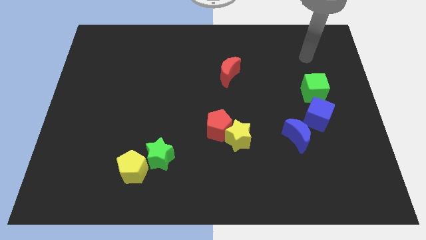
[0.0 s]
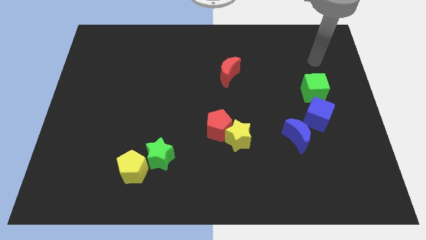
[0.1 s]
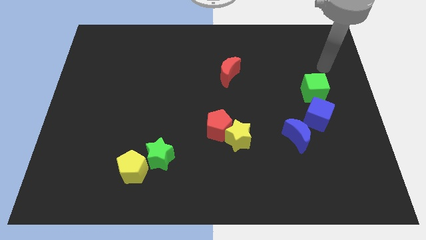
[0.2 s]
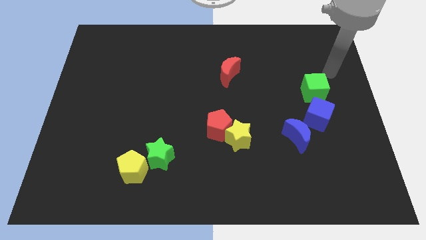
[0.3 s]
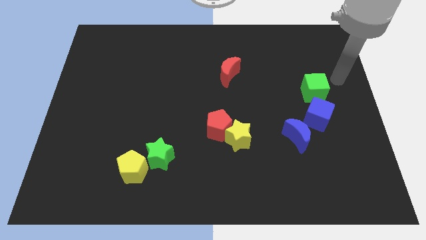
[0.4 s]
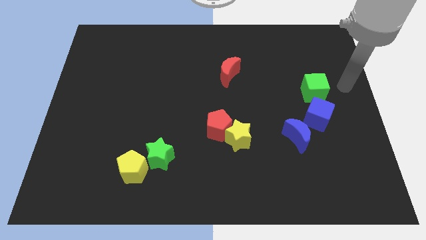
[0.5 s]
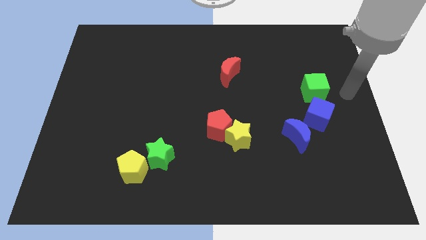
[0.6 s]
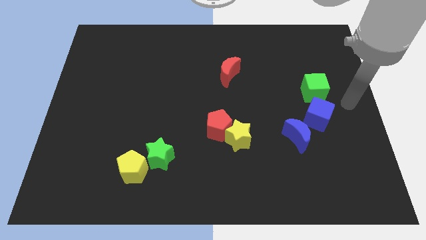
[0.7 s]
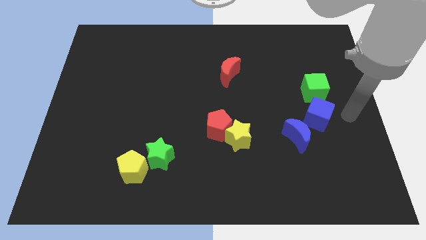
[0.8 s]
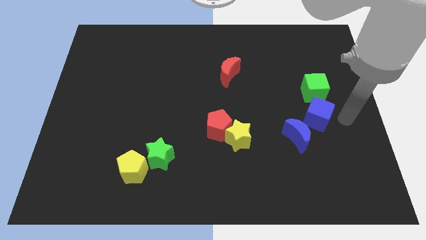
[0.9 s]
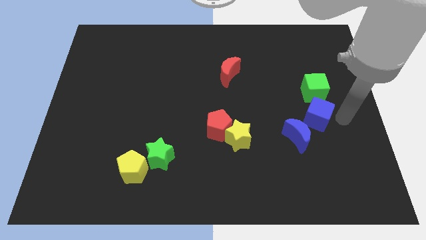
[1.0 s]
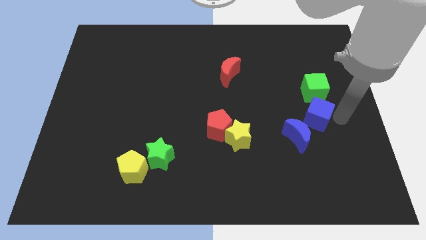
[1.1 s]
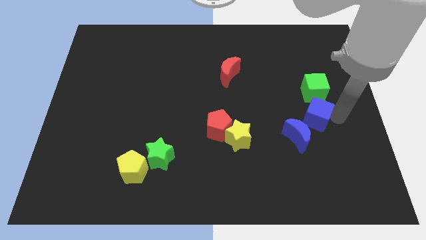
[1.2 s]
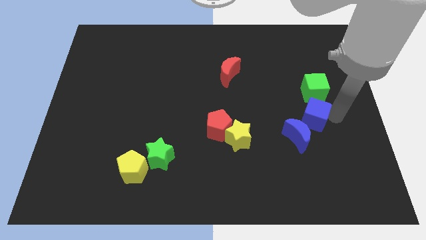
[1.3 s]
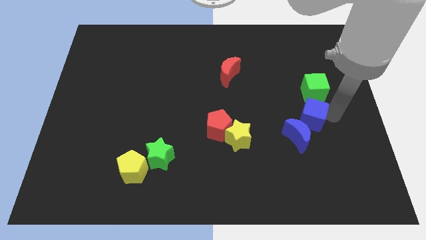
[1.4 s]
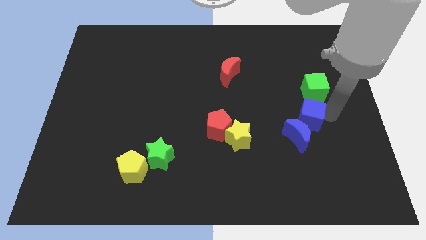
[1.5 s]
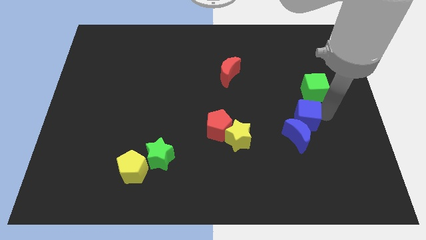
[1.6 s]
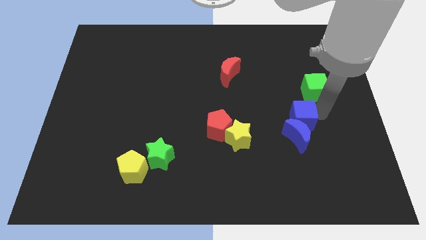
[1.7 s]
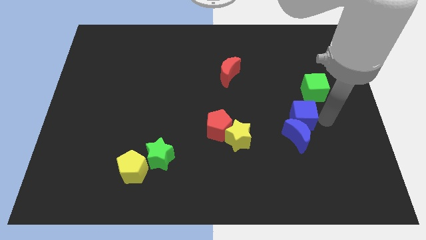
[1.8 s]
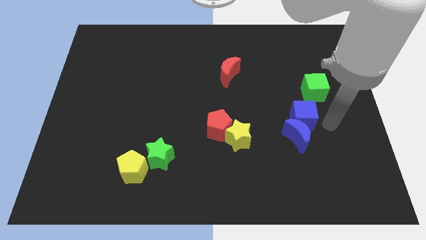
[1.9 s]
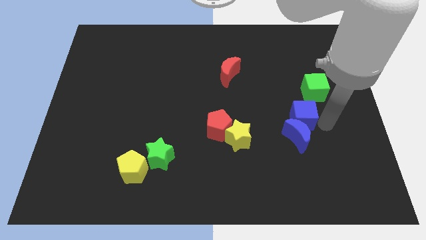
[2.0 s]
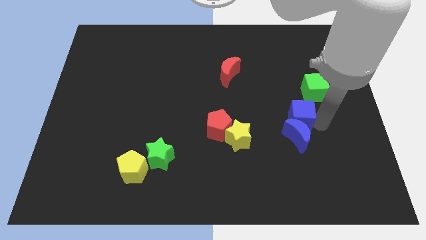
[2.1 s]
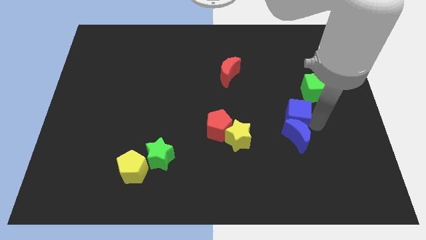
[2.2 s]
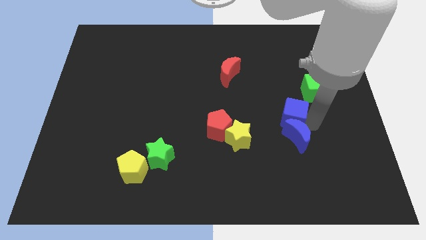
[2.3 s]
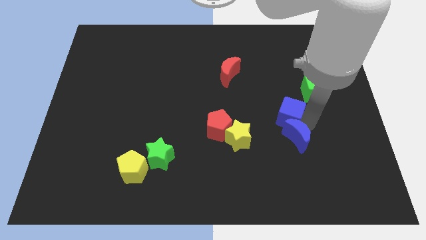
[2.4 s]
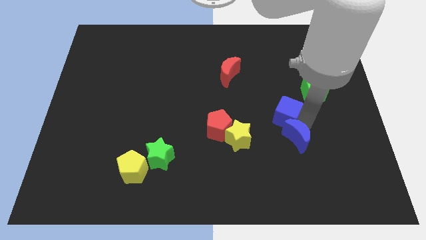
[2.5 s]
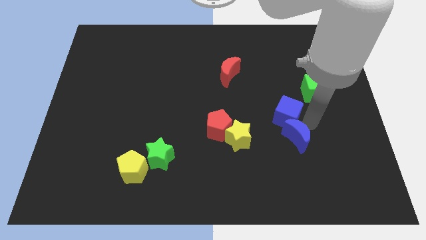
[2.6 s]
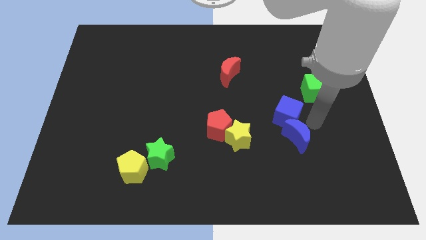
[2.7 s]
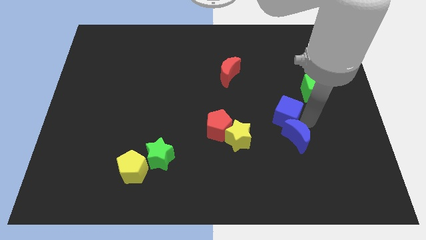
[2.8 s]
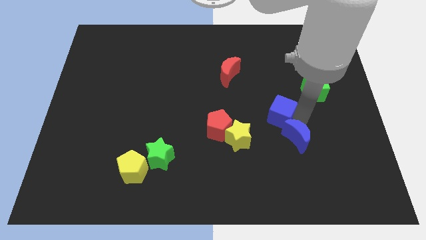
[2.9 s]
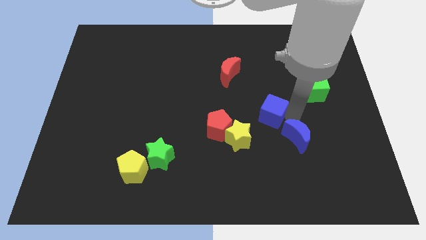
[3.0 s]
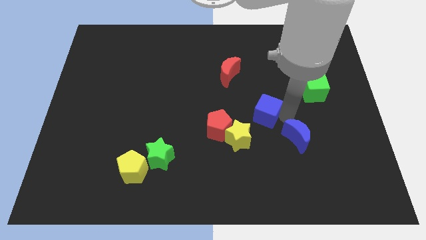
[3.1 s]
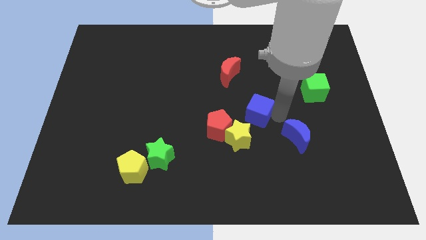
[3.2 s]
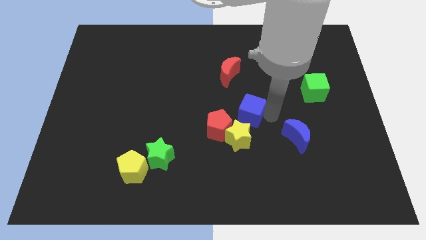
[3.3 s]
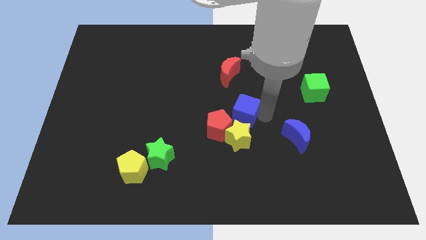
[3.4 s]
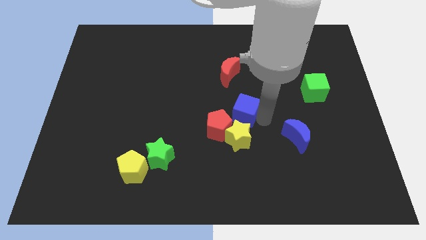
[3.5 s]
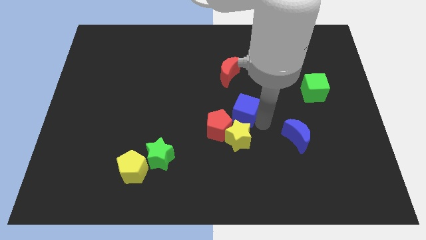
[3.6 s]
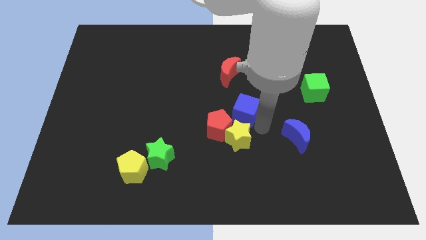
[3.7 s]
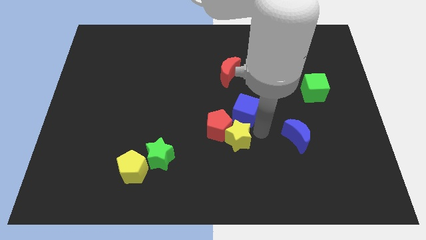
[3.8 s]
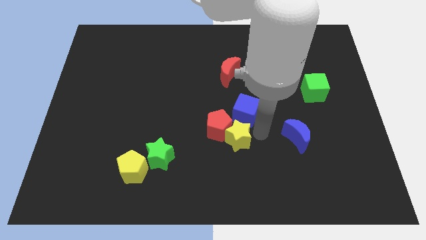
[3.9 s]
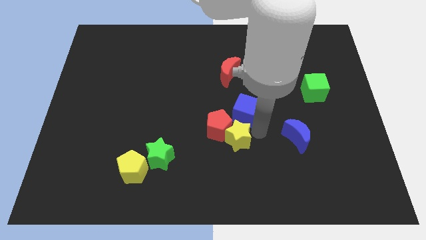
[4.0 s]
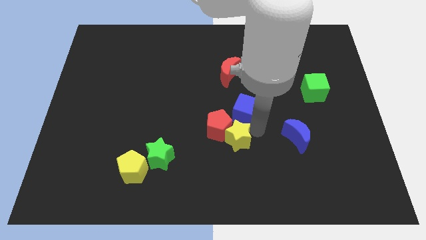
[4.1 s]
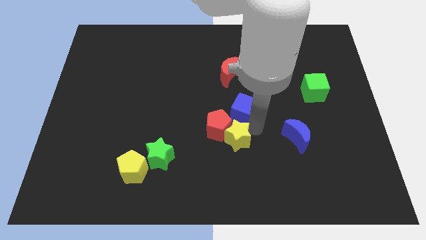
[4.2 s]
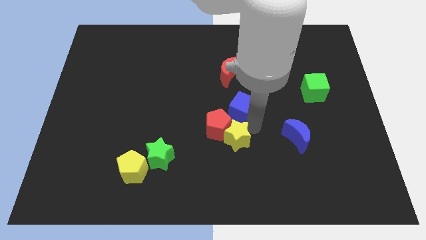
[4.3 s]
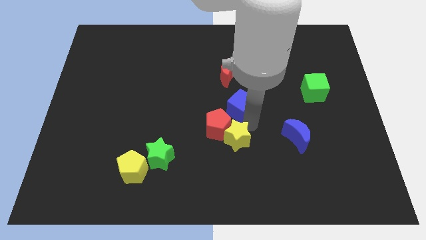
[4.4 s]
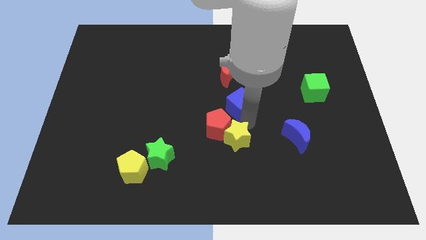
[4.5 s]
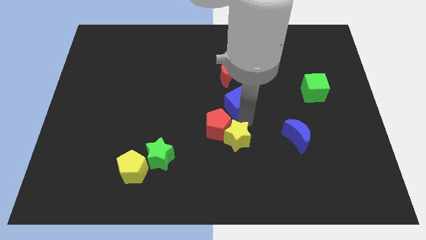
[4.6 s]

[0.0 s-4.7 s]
put the blue cube to the top of the red pentagon

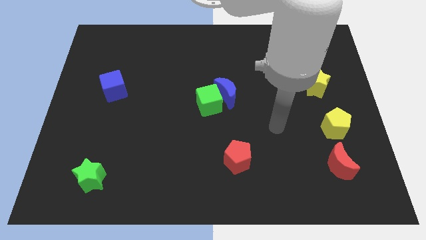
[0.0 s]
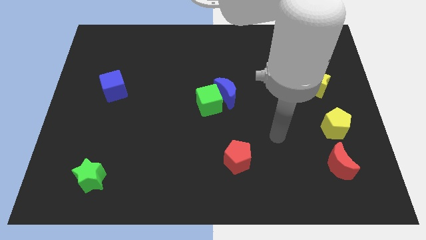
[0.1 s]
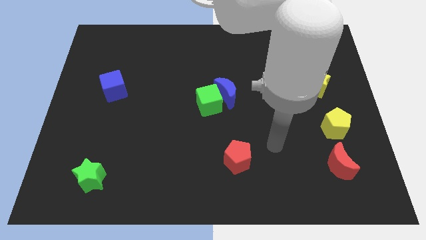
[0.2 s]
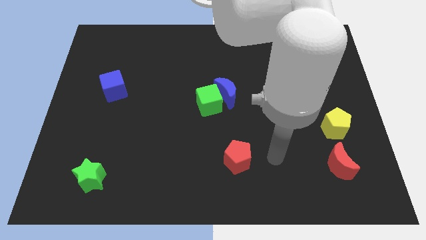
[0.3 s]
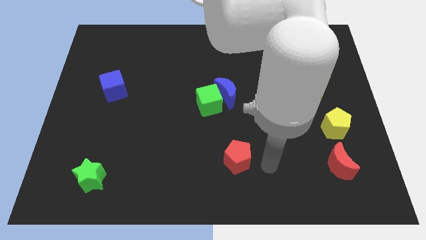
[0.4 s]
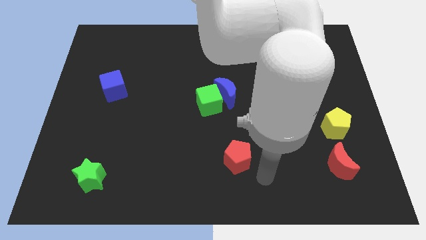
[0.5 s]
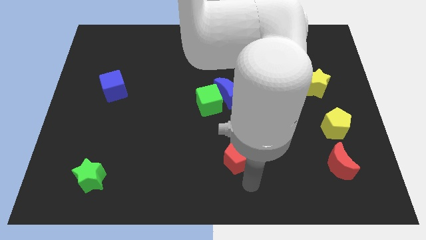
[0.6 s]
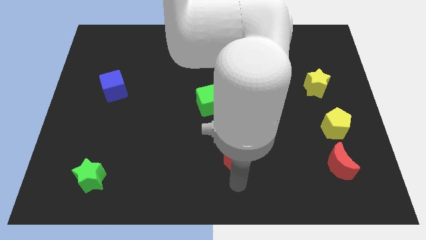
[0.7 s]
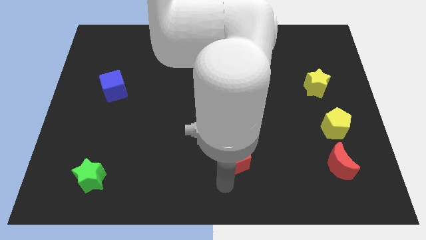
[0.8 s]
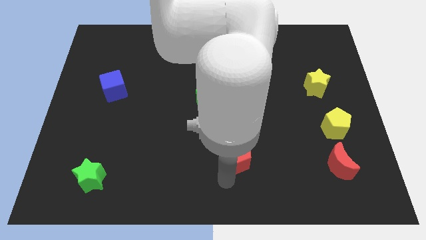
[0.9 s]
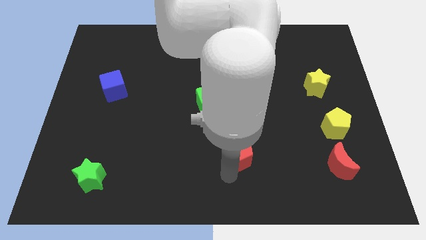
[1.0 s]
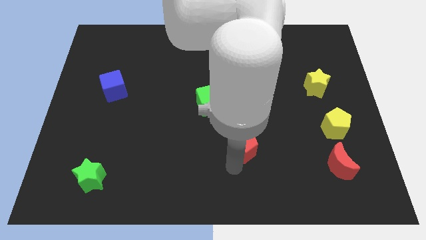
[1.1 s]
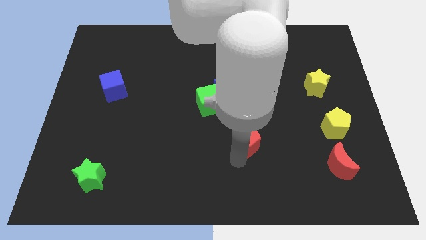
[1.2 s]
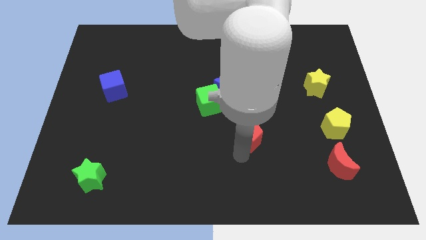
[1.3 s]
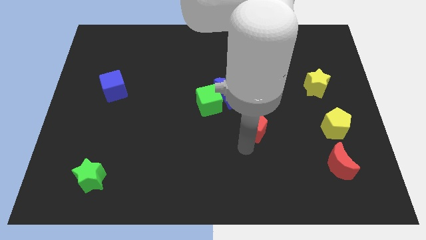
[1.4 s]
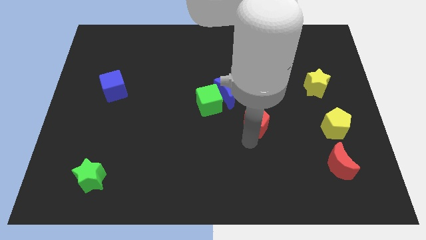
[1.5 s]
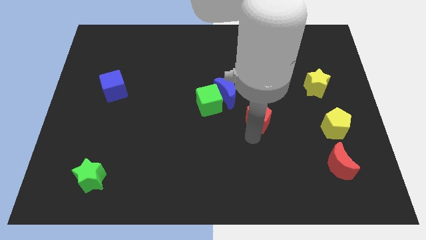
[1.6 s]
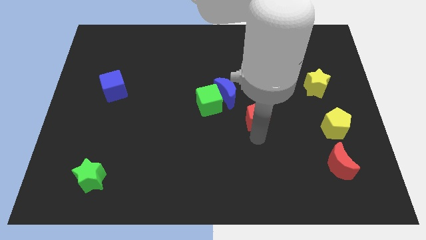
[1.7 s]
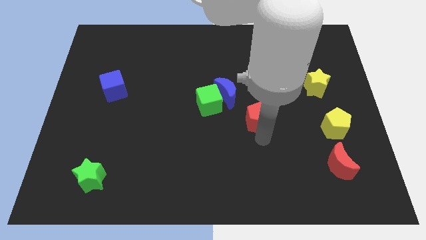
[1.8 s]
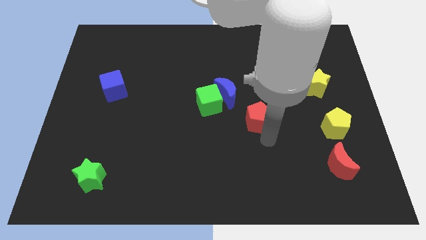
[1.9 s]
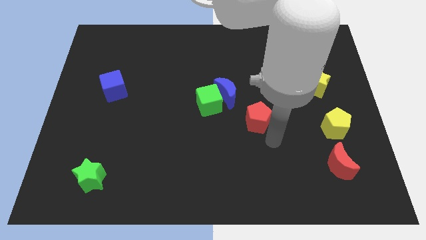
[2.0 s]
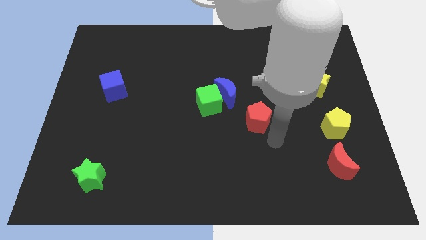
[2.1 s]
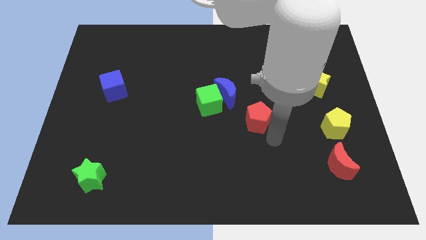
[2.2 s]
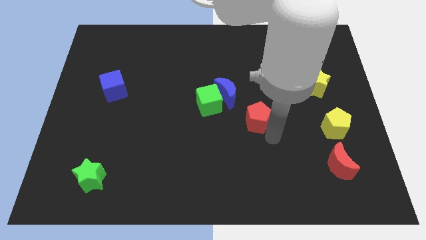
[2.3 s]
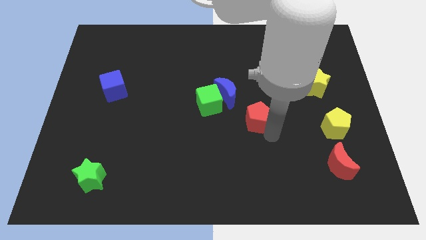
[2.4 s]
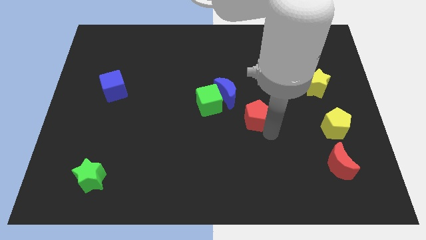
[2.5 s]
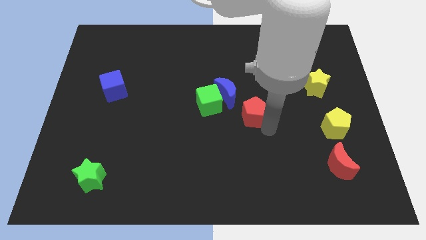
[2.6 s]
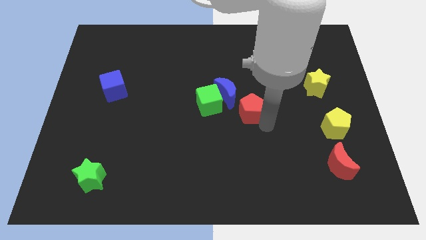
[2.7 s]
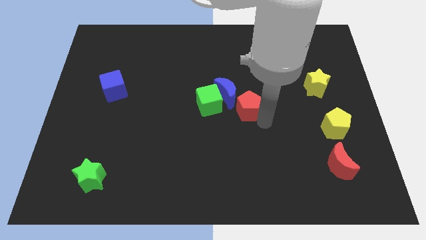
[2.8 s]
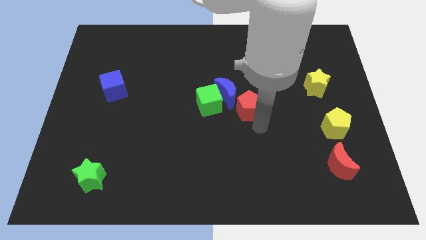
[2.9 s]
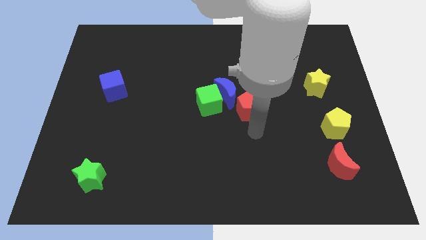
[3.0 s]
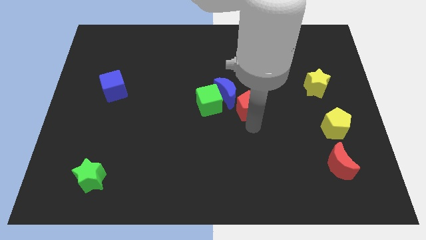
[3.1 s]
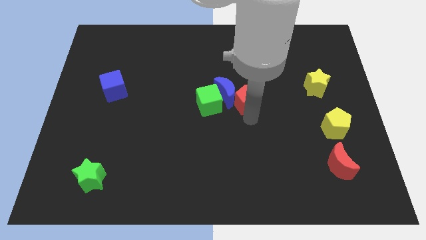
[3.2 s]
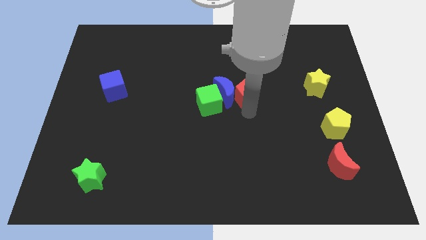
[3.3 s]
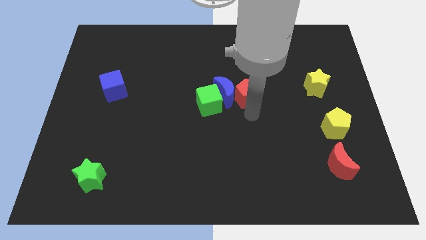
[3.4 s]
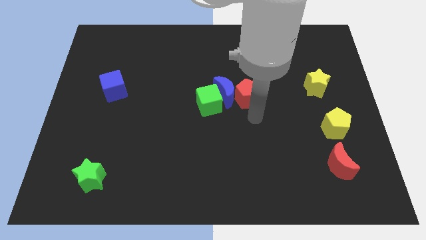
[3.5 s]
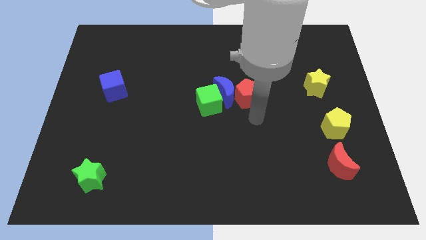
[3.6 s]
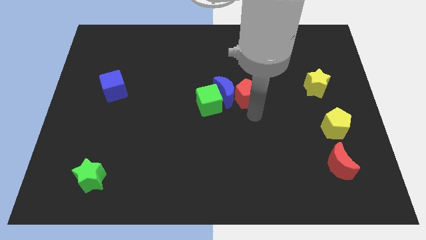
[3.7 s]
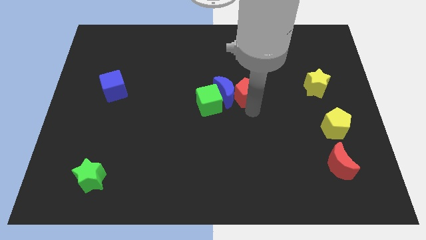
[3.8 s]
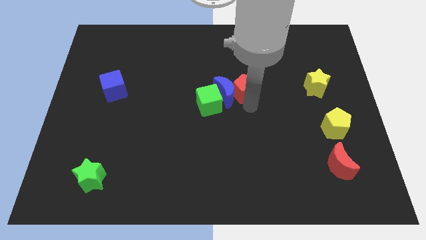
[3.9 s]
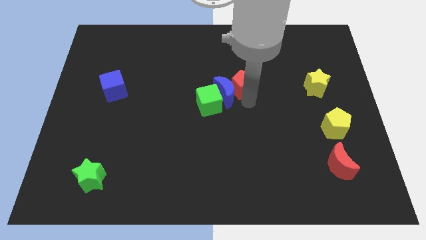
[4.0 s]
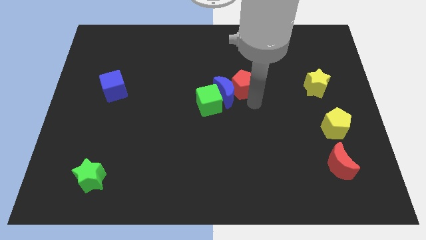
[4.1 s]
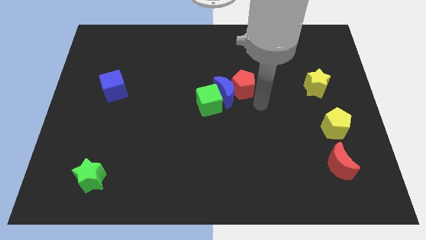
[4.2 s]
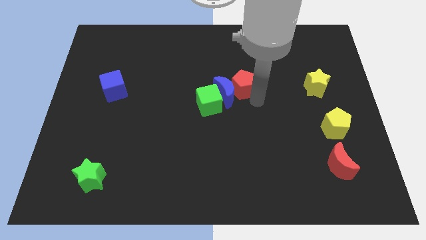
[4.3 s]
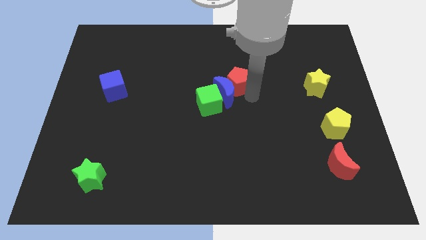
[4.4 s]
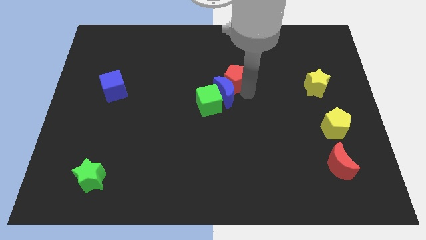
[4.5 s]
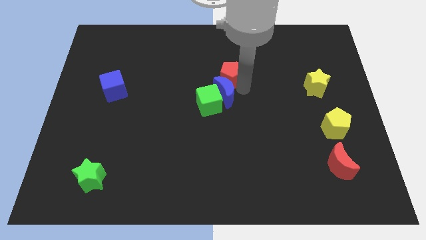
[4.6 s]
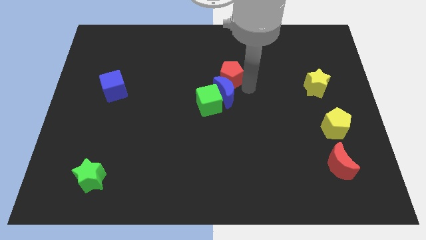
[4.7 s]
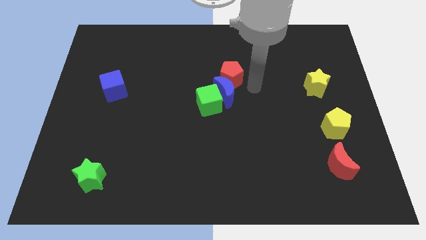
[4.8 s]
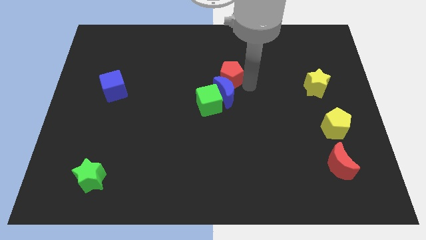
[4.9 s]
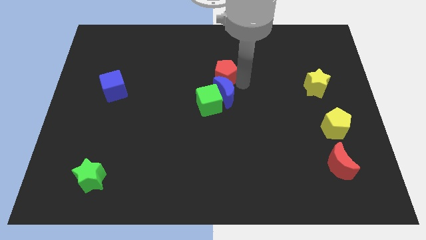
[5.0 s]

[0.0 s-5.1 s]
slide the red pentagon to the top side of the green cube
